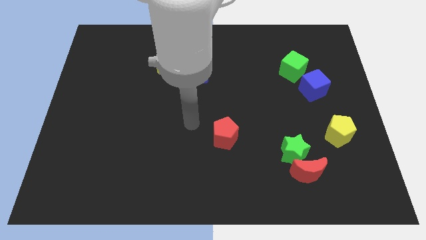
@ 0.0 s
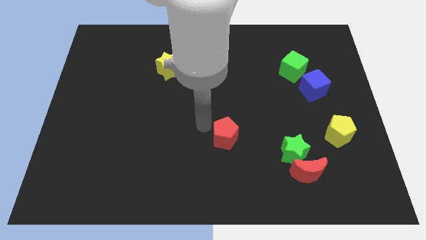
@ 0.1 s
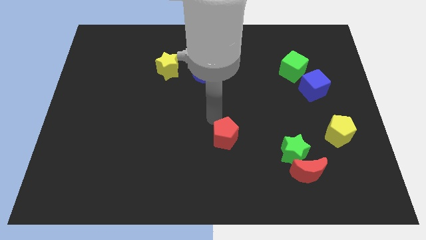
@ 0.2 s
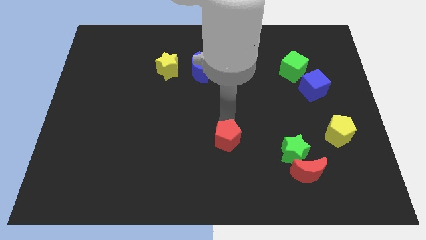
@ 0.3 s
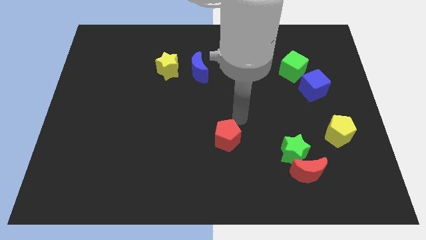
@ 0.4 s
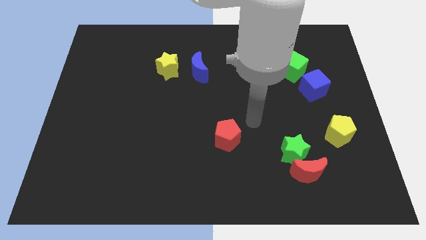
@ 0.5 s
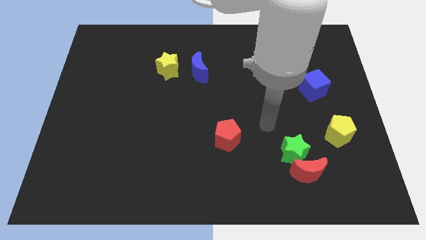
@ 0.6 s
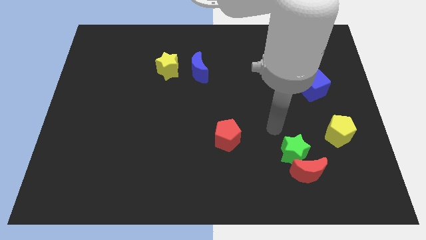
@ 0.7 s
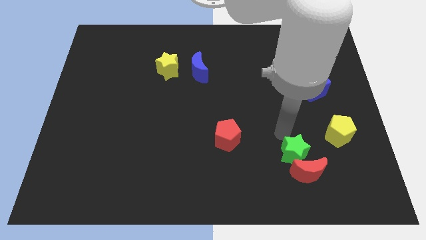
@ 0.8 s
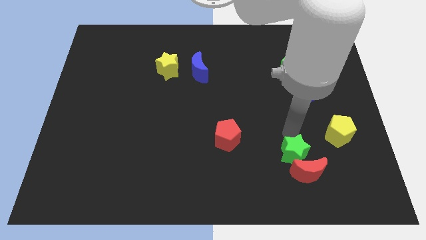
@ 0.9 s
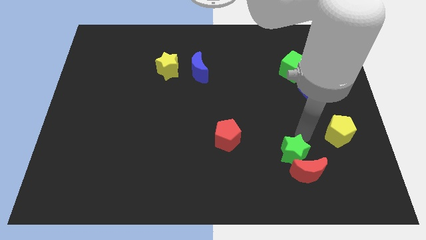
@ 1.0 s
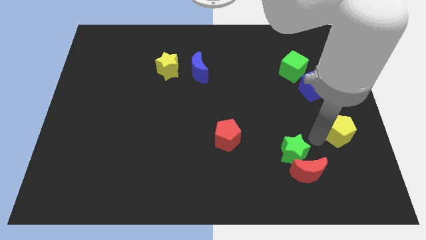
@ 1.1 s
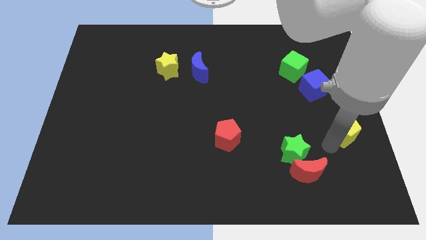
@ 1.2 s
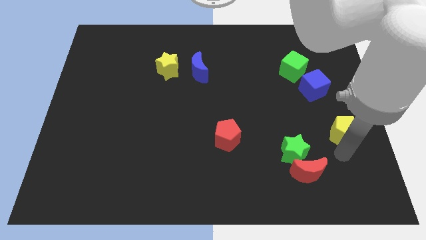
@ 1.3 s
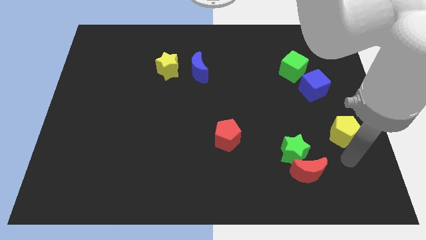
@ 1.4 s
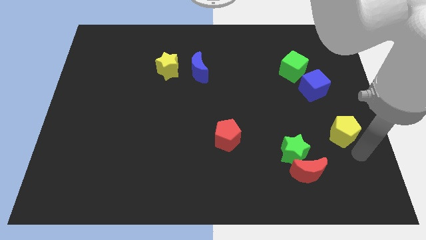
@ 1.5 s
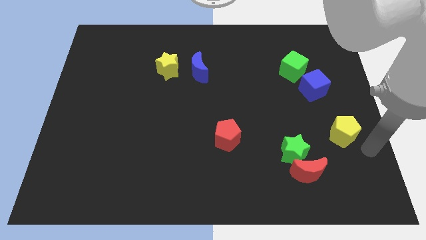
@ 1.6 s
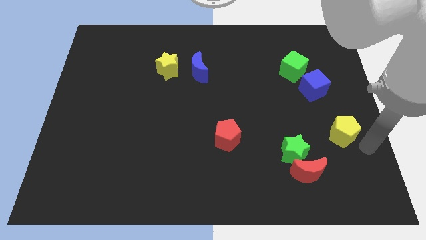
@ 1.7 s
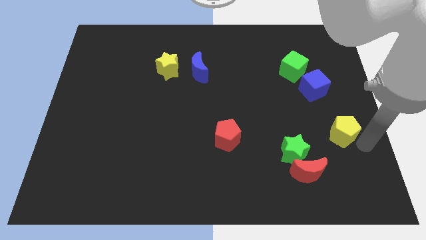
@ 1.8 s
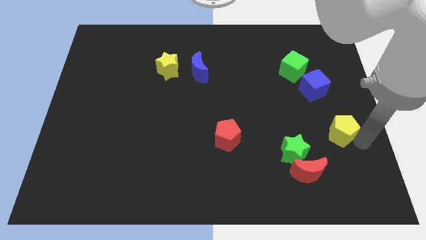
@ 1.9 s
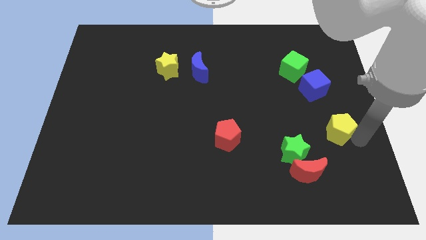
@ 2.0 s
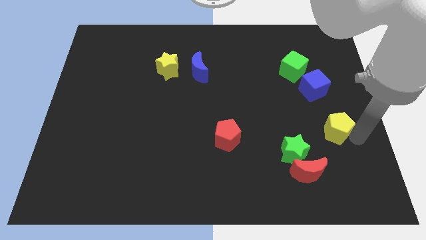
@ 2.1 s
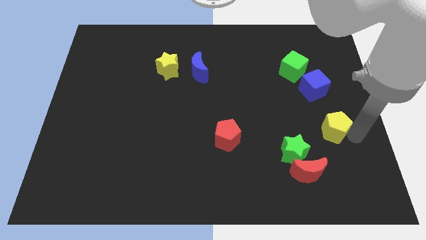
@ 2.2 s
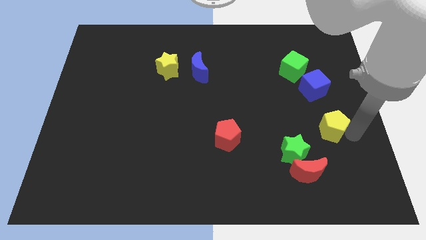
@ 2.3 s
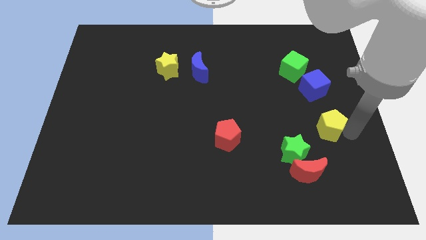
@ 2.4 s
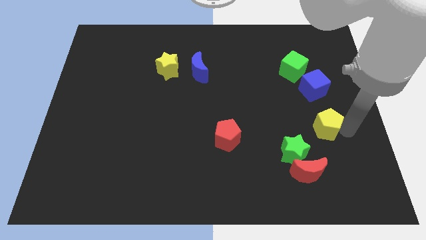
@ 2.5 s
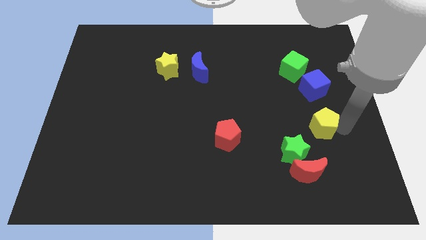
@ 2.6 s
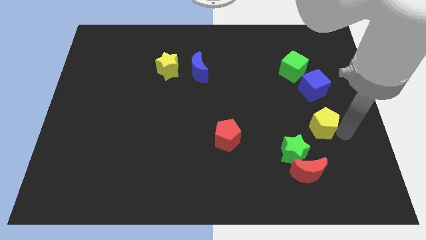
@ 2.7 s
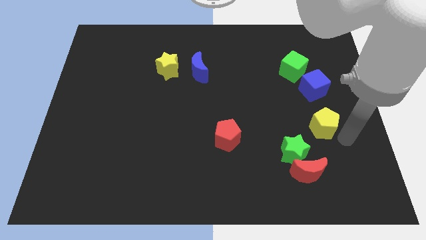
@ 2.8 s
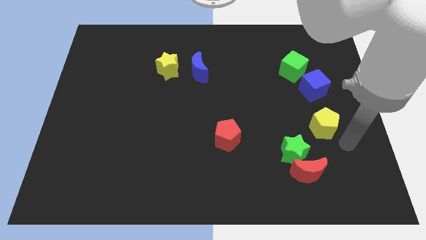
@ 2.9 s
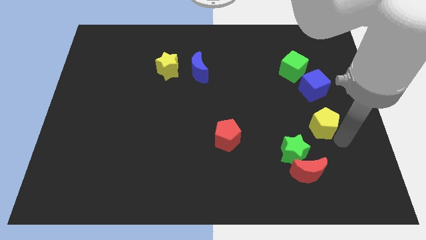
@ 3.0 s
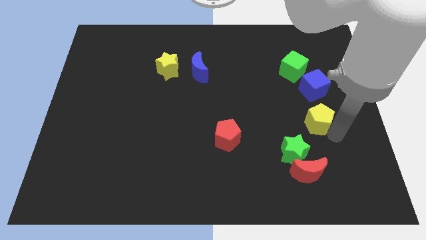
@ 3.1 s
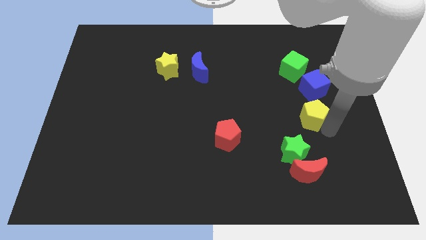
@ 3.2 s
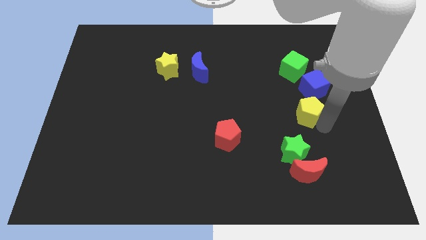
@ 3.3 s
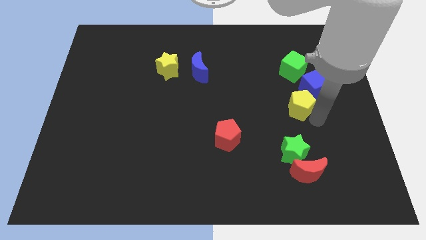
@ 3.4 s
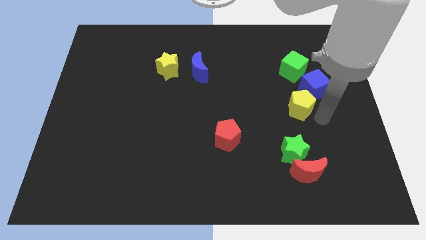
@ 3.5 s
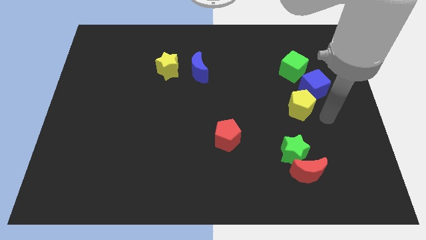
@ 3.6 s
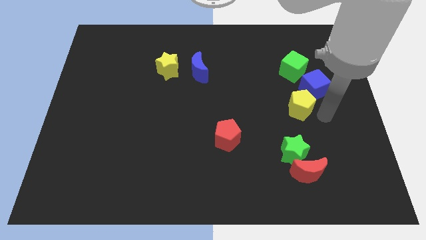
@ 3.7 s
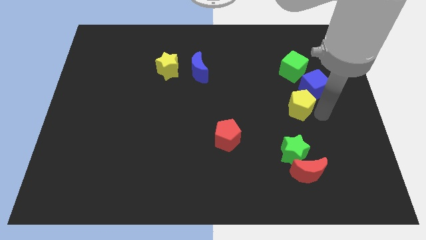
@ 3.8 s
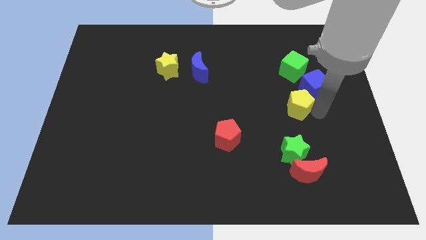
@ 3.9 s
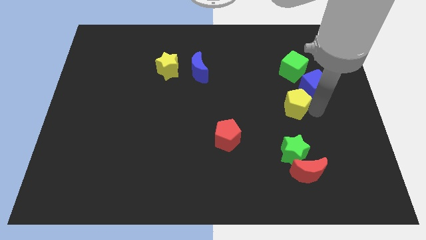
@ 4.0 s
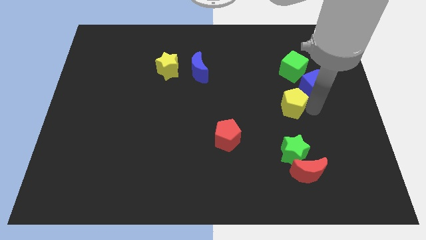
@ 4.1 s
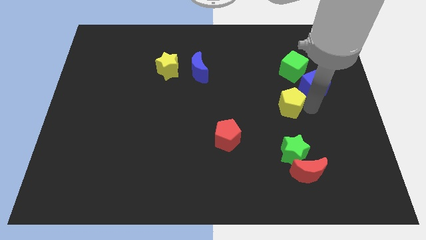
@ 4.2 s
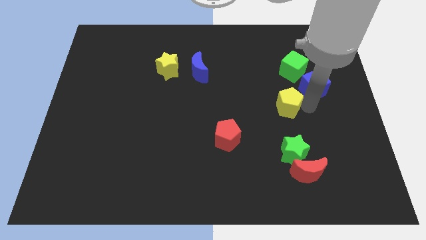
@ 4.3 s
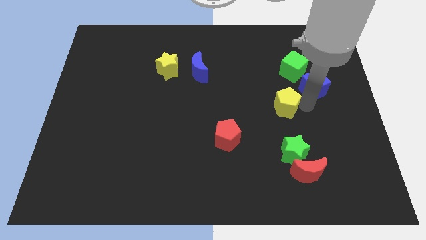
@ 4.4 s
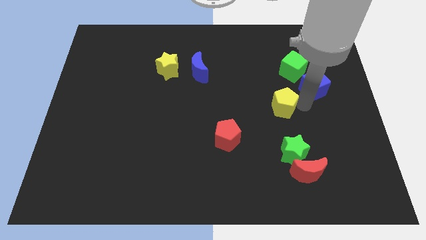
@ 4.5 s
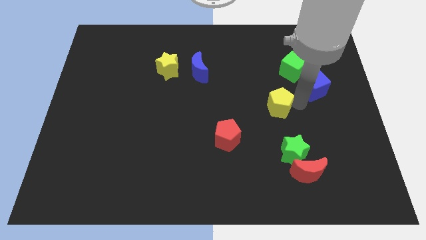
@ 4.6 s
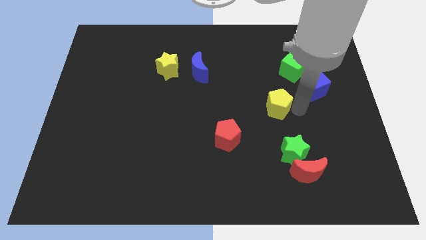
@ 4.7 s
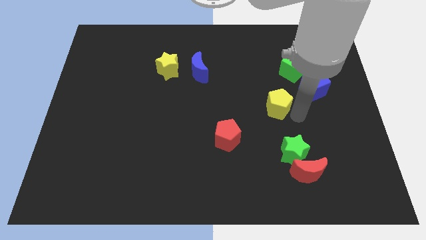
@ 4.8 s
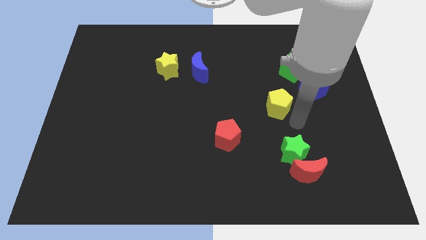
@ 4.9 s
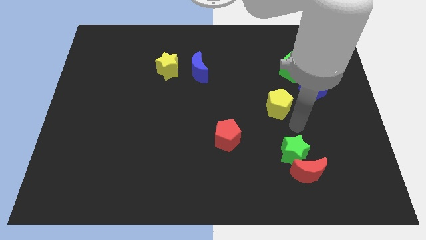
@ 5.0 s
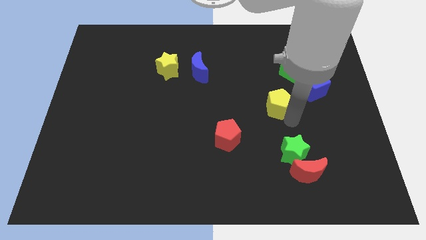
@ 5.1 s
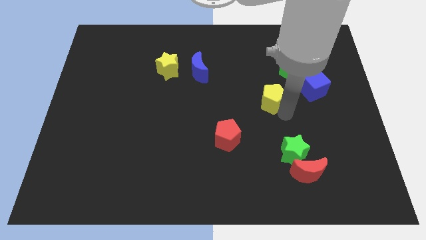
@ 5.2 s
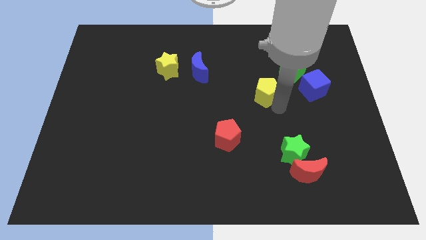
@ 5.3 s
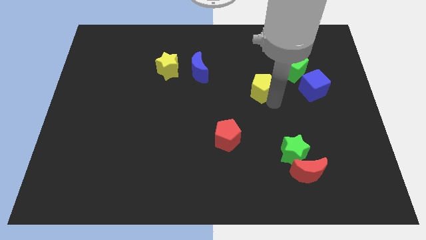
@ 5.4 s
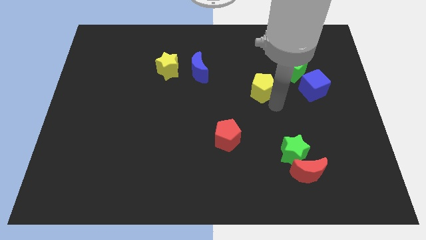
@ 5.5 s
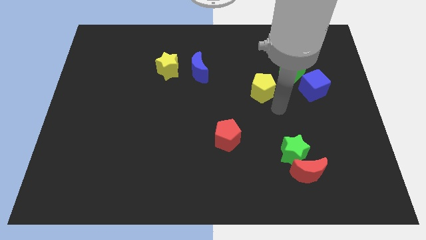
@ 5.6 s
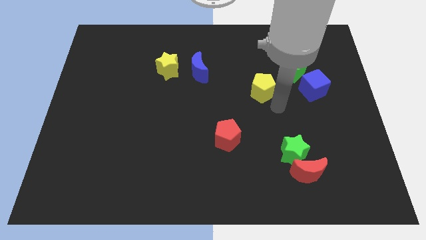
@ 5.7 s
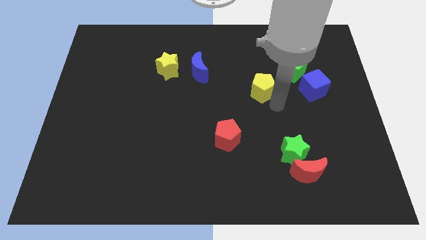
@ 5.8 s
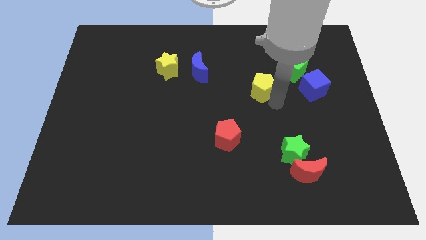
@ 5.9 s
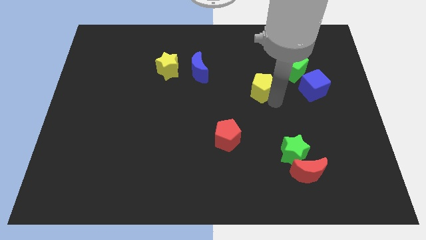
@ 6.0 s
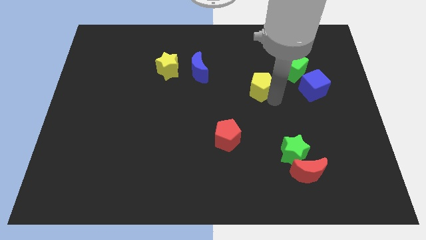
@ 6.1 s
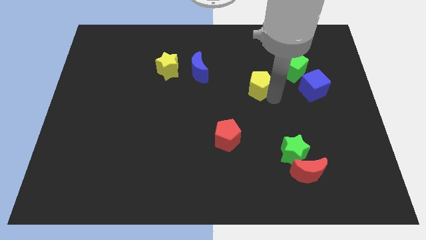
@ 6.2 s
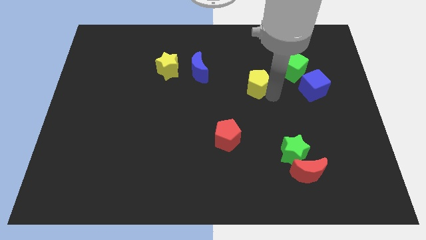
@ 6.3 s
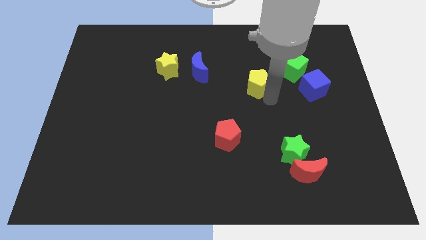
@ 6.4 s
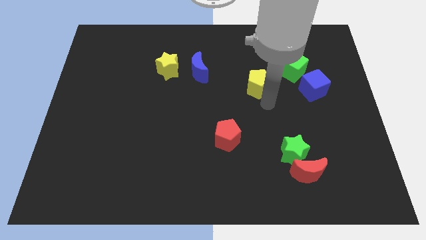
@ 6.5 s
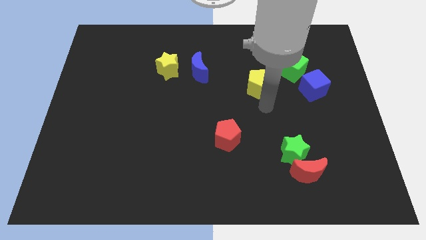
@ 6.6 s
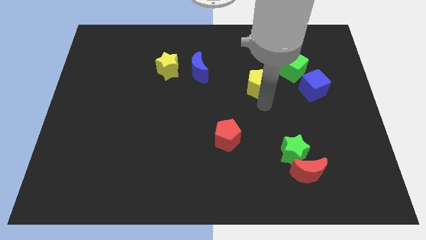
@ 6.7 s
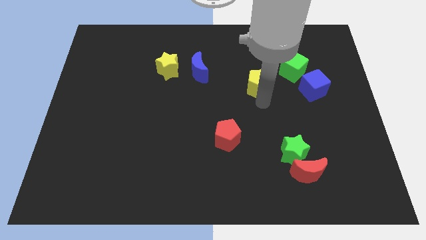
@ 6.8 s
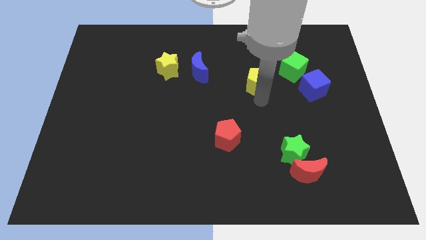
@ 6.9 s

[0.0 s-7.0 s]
slide the yellow pentagon just left of the green cube
